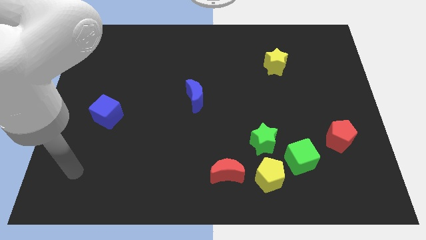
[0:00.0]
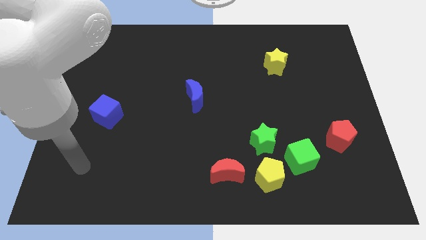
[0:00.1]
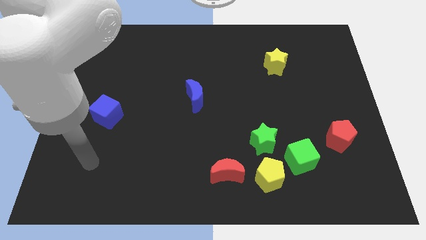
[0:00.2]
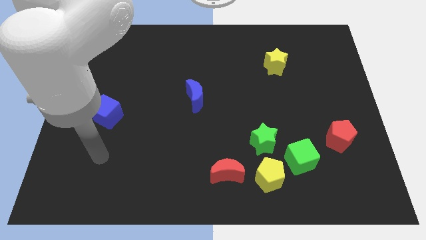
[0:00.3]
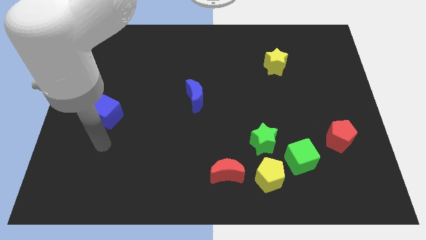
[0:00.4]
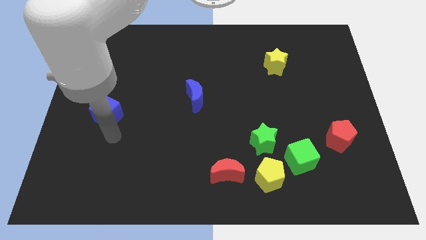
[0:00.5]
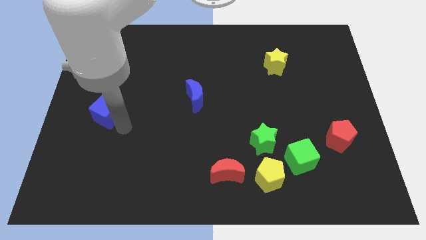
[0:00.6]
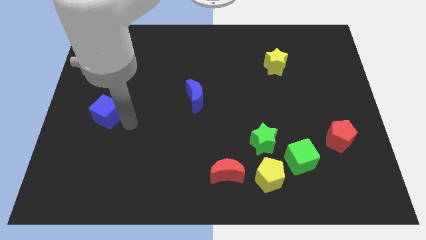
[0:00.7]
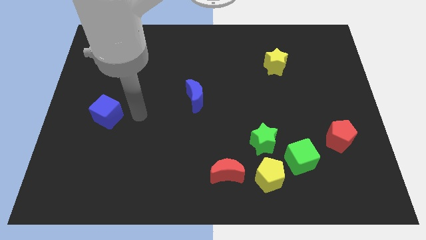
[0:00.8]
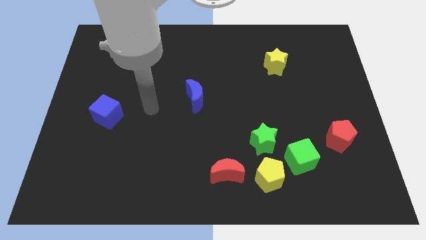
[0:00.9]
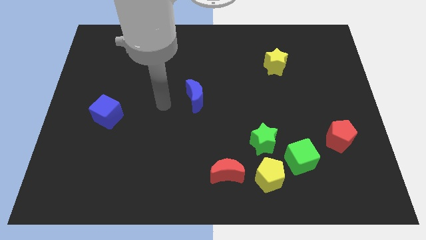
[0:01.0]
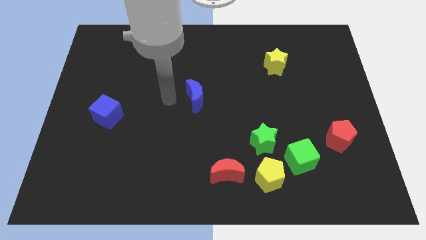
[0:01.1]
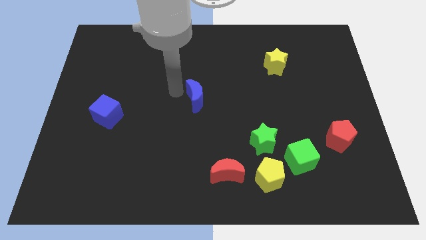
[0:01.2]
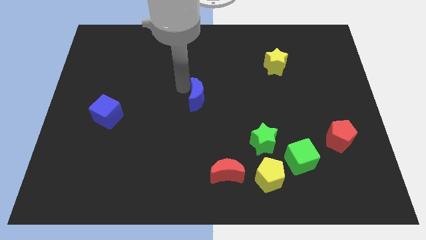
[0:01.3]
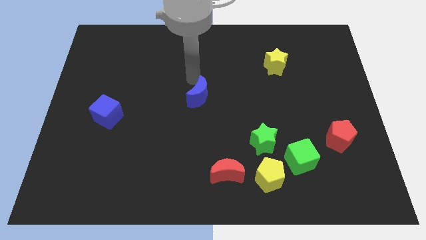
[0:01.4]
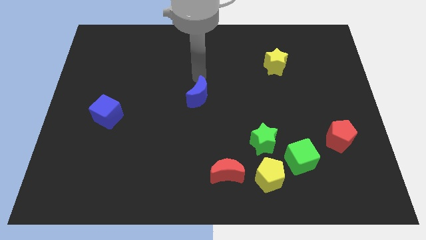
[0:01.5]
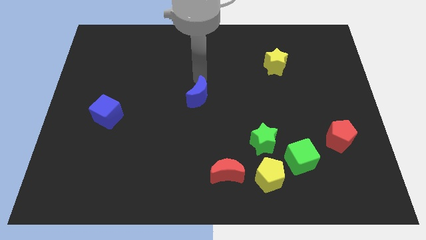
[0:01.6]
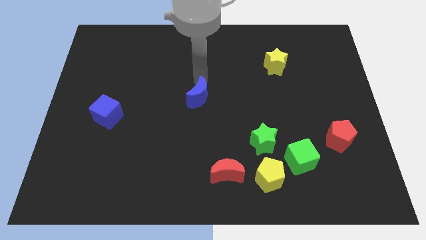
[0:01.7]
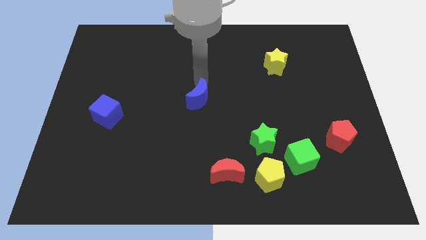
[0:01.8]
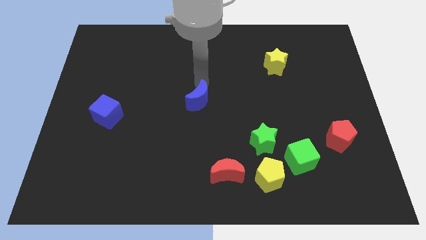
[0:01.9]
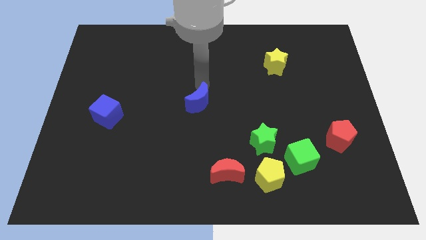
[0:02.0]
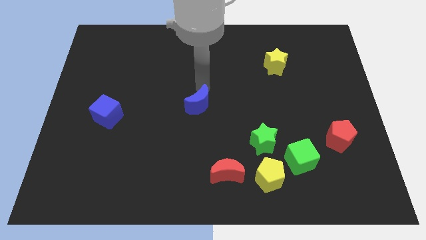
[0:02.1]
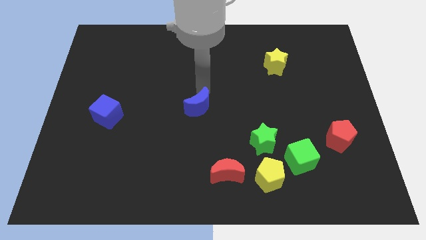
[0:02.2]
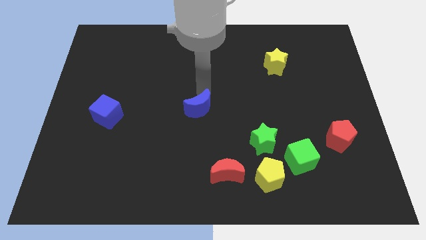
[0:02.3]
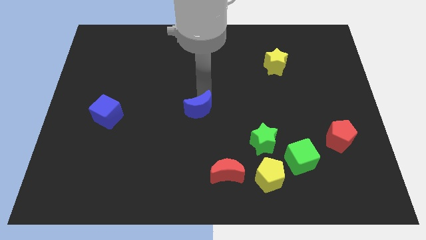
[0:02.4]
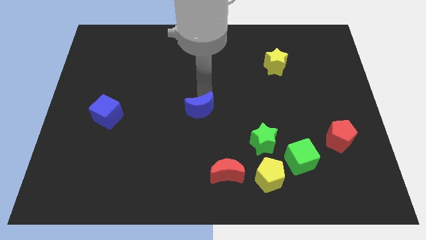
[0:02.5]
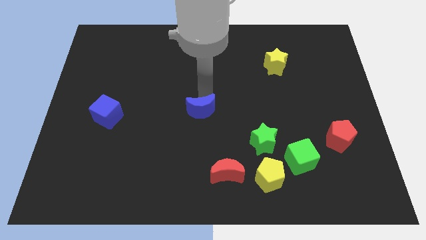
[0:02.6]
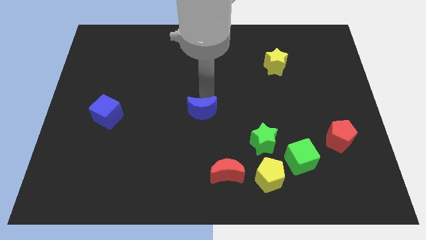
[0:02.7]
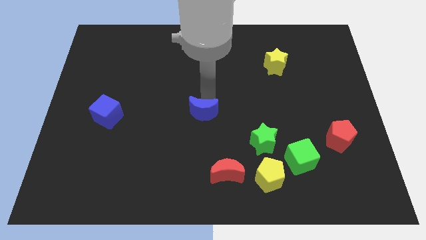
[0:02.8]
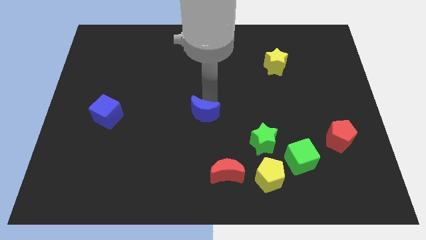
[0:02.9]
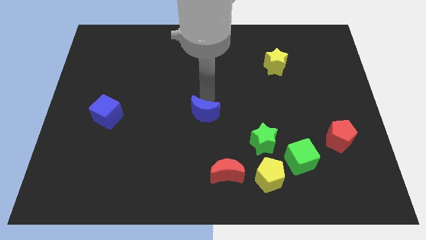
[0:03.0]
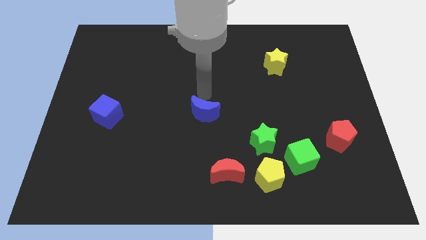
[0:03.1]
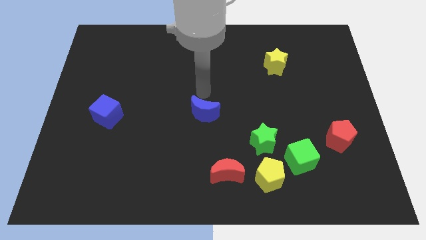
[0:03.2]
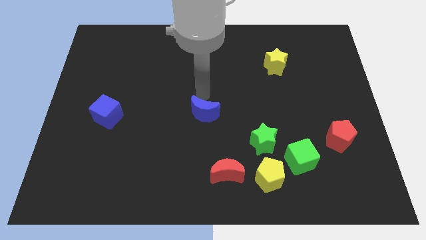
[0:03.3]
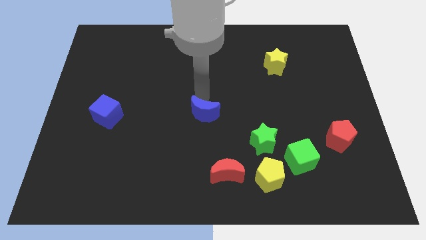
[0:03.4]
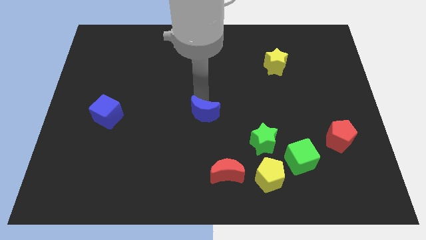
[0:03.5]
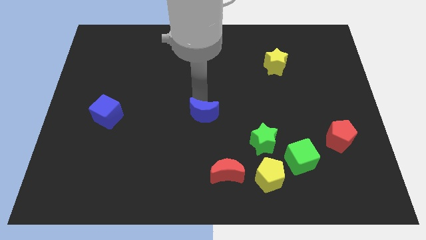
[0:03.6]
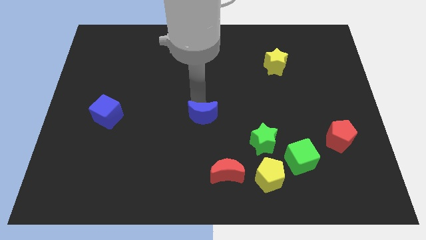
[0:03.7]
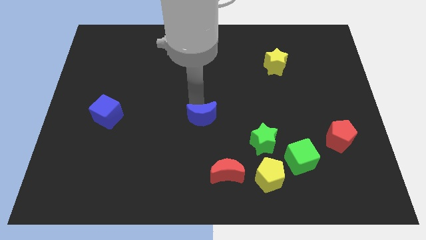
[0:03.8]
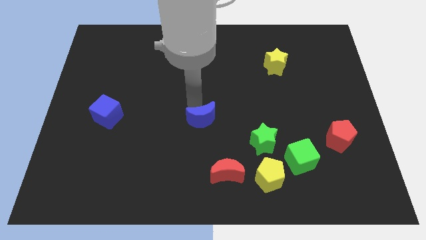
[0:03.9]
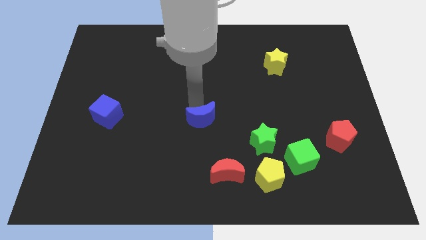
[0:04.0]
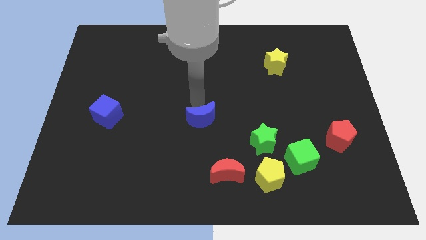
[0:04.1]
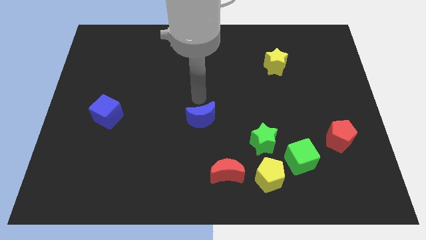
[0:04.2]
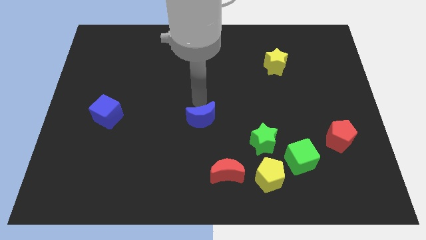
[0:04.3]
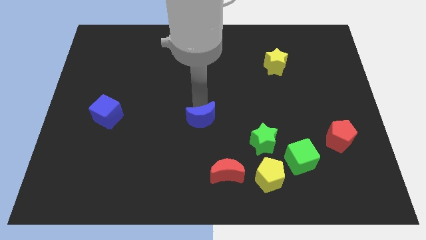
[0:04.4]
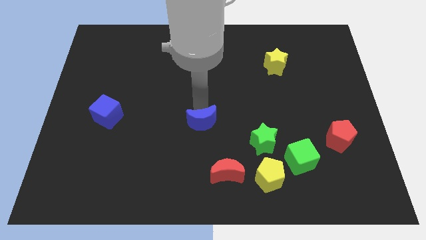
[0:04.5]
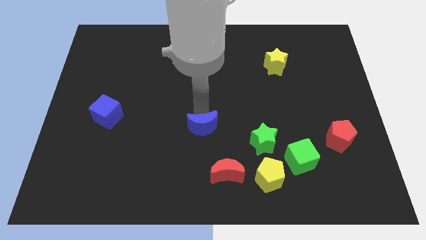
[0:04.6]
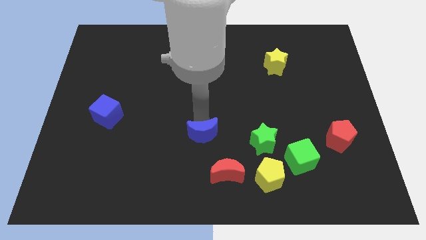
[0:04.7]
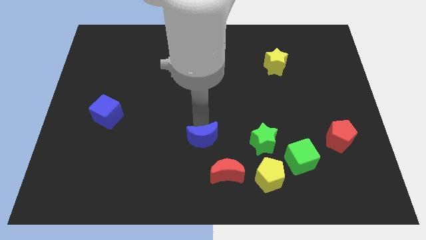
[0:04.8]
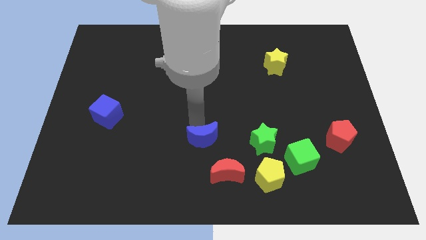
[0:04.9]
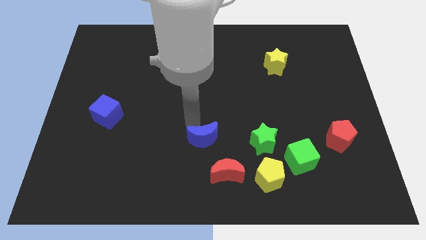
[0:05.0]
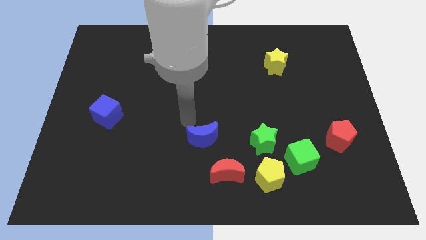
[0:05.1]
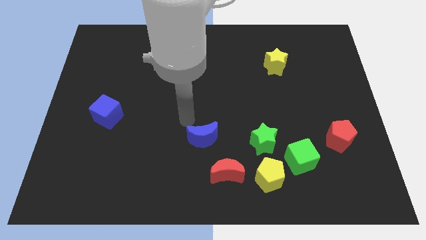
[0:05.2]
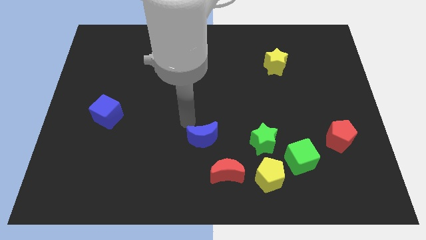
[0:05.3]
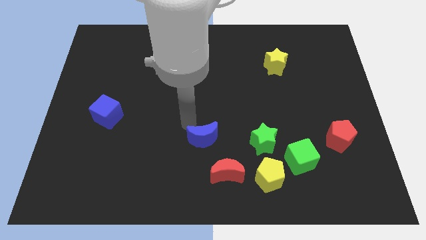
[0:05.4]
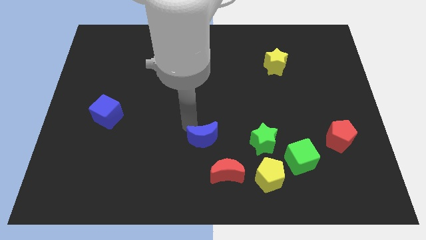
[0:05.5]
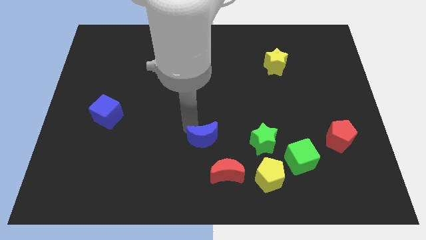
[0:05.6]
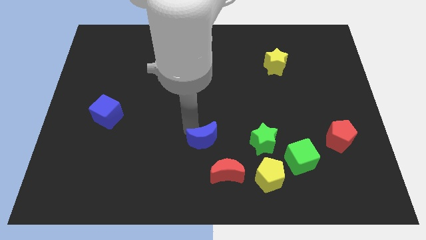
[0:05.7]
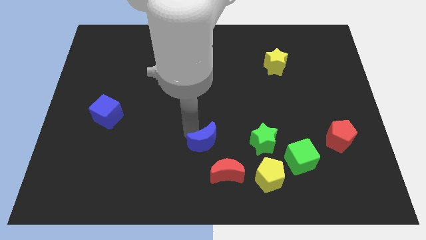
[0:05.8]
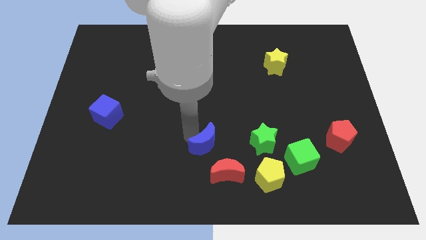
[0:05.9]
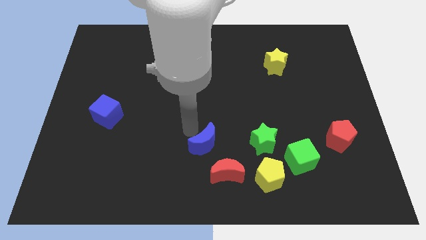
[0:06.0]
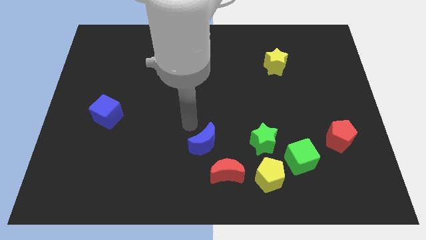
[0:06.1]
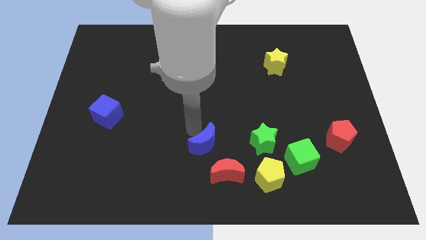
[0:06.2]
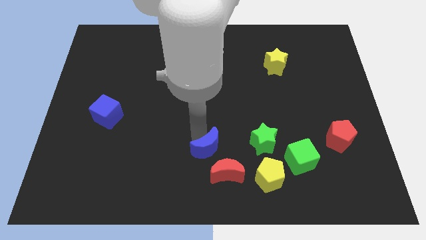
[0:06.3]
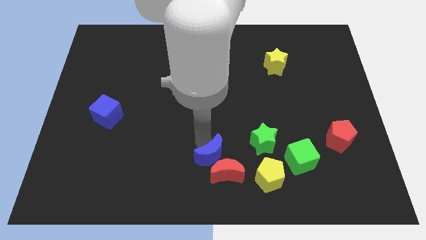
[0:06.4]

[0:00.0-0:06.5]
slide the blue moon to the red moon

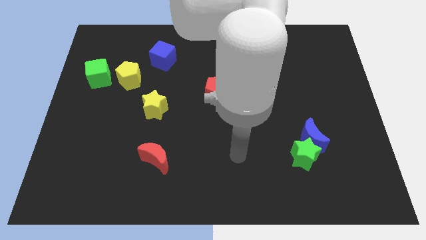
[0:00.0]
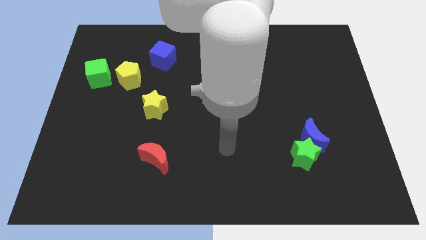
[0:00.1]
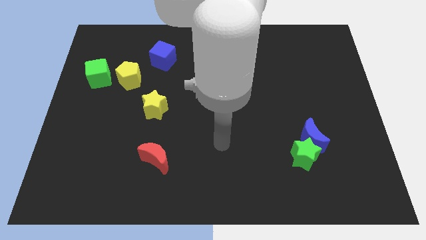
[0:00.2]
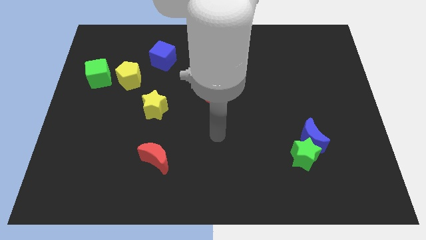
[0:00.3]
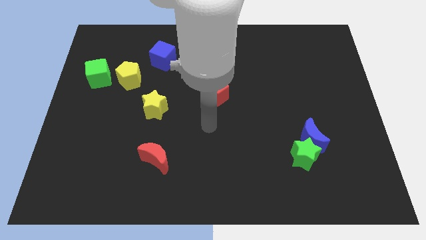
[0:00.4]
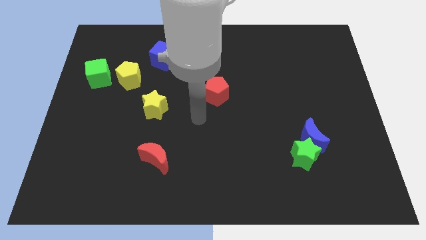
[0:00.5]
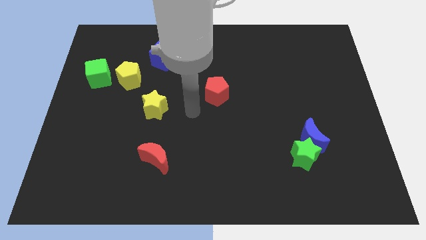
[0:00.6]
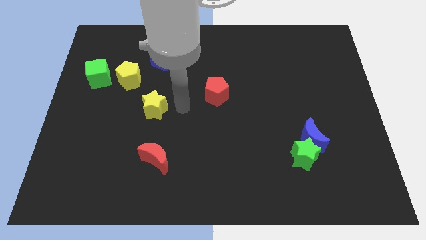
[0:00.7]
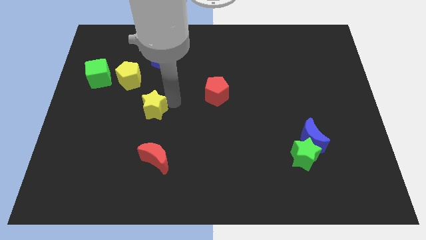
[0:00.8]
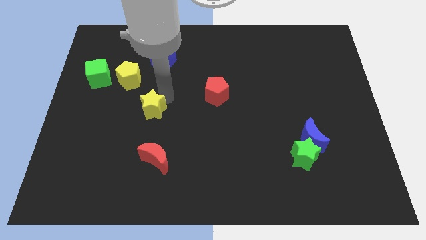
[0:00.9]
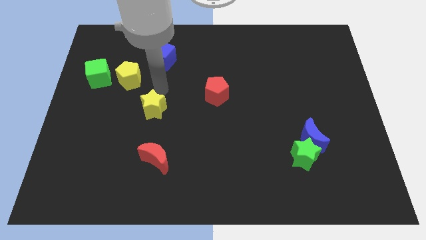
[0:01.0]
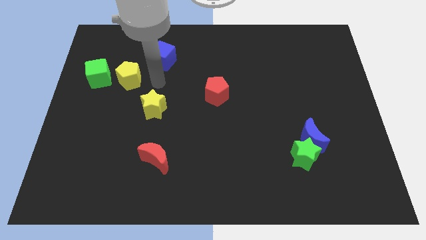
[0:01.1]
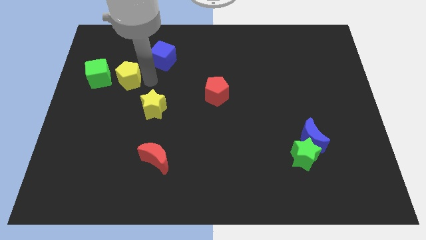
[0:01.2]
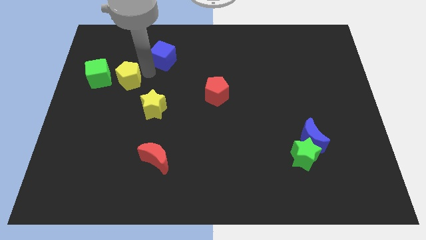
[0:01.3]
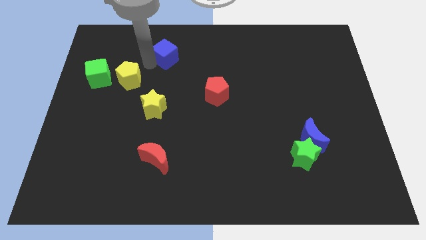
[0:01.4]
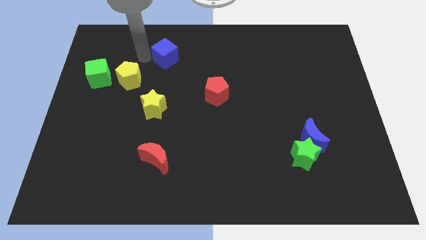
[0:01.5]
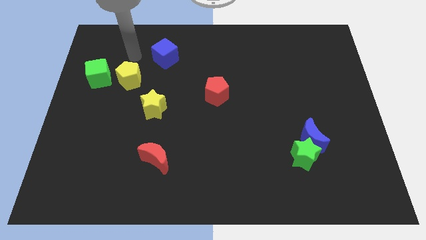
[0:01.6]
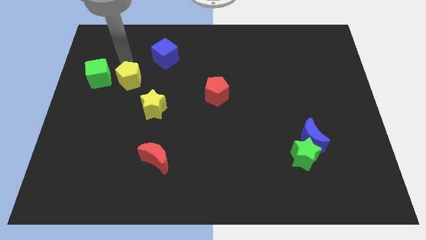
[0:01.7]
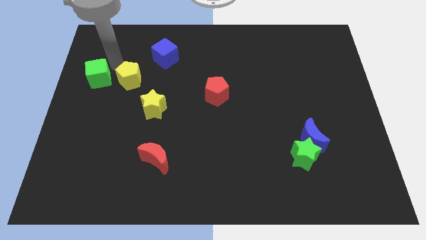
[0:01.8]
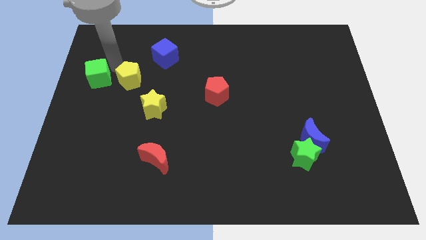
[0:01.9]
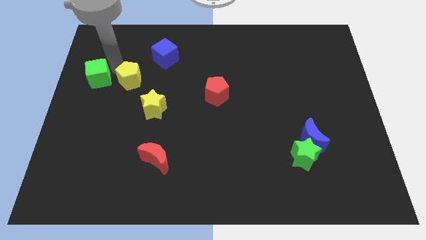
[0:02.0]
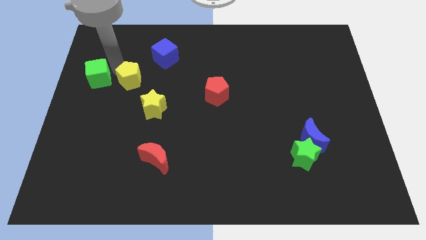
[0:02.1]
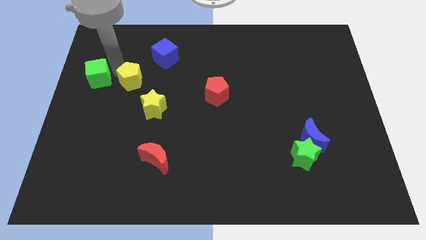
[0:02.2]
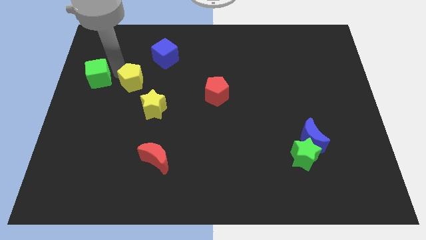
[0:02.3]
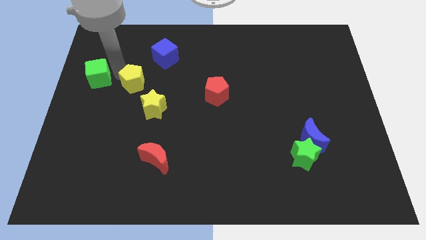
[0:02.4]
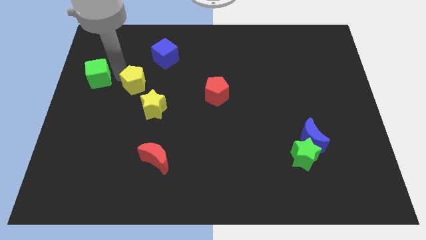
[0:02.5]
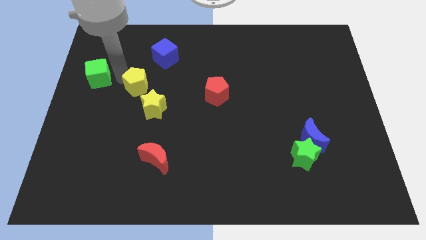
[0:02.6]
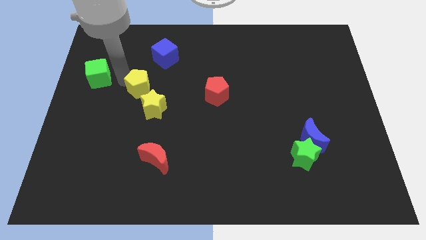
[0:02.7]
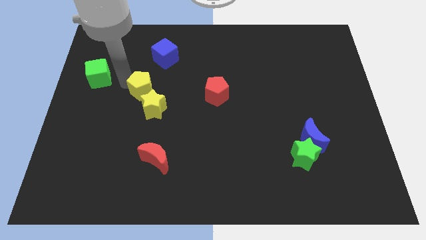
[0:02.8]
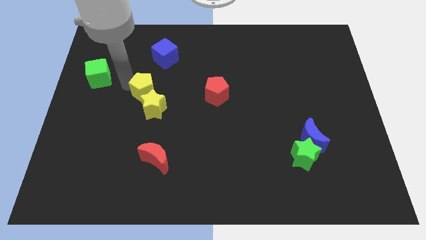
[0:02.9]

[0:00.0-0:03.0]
put the yellow pentagon towards the yellow star
